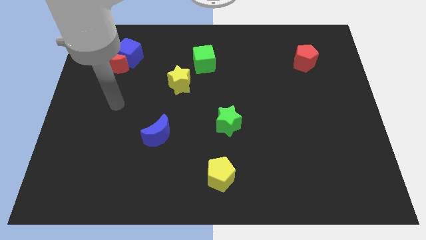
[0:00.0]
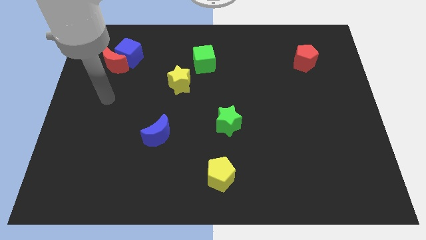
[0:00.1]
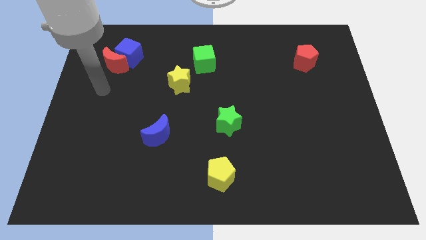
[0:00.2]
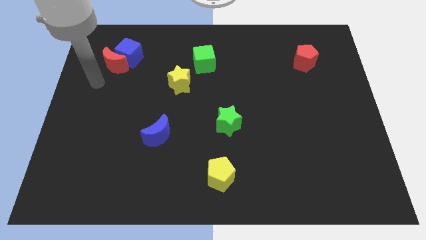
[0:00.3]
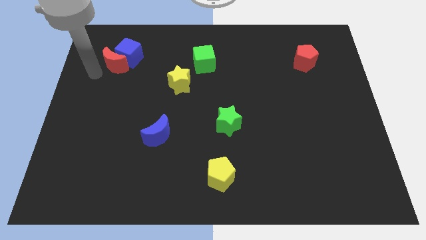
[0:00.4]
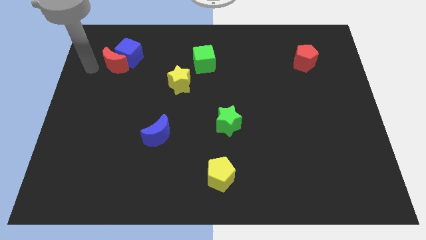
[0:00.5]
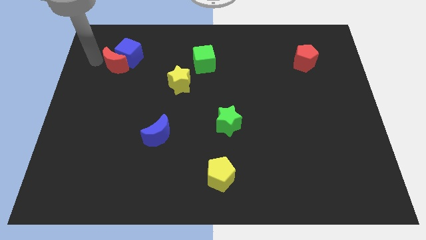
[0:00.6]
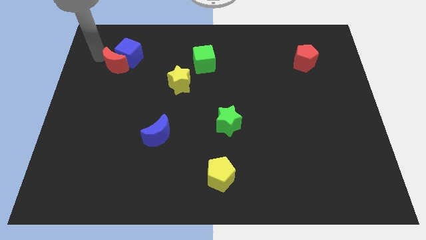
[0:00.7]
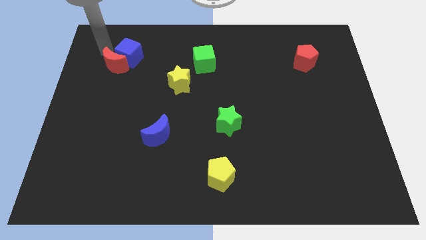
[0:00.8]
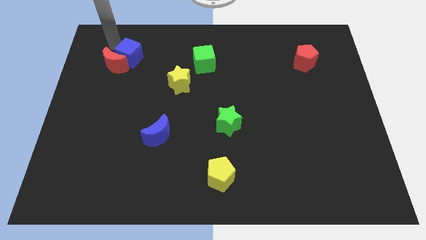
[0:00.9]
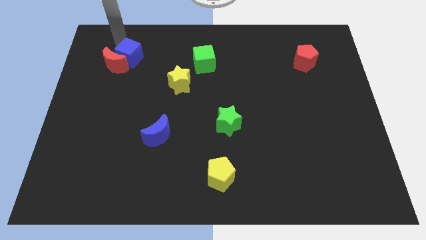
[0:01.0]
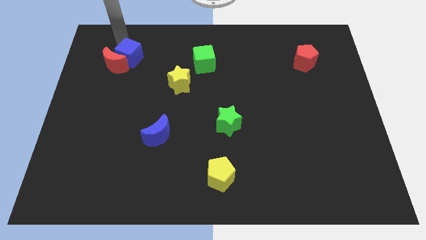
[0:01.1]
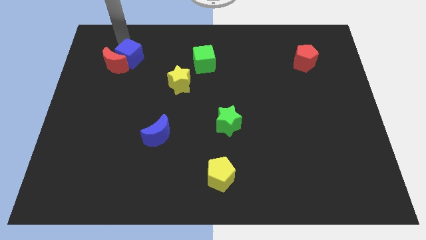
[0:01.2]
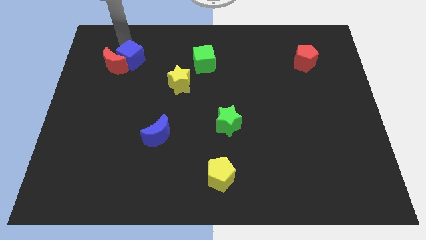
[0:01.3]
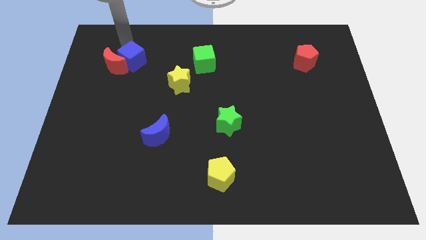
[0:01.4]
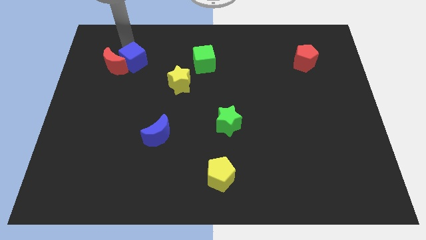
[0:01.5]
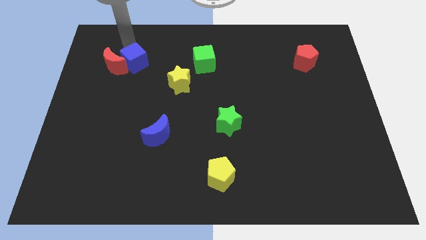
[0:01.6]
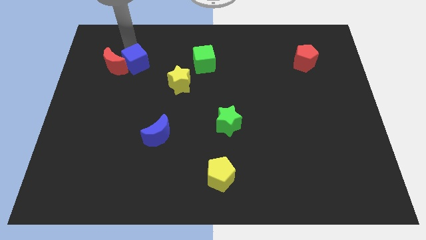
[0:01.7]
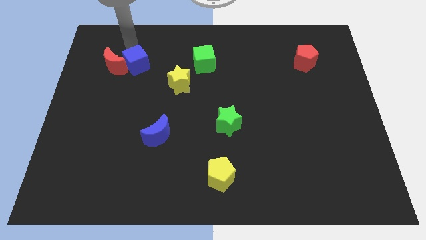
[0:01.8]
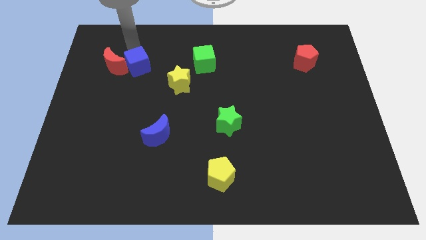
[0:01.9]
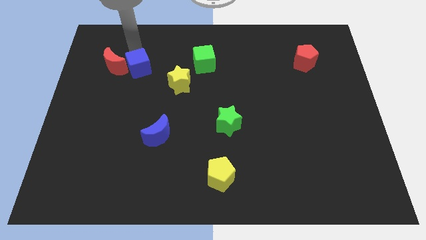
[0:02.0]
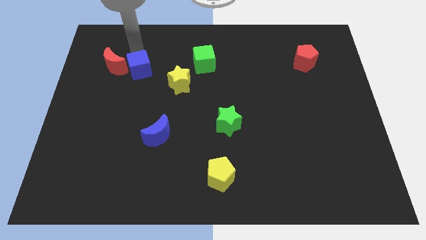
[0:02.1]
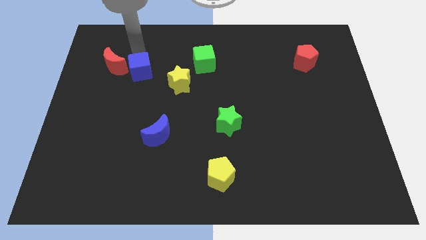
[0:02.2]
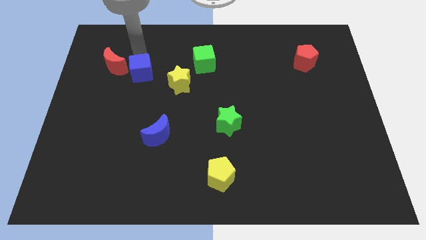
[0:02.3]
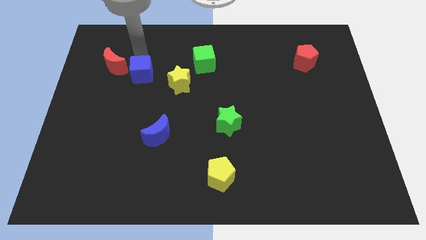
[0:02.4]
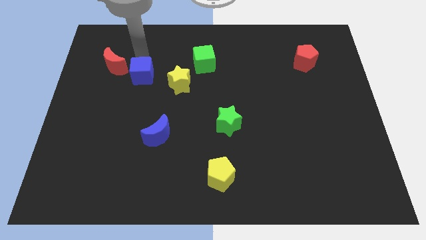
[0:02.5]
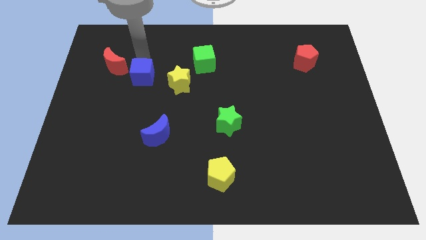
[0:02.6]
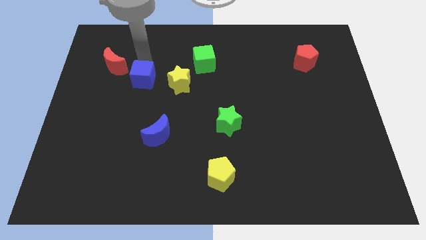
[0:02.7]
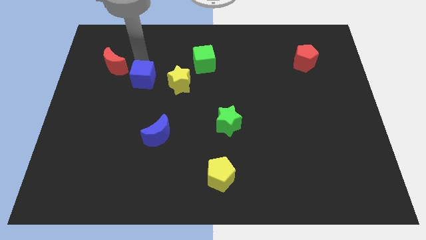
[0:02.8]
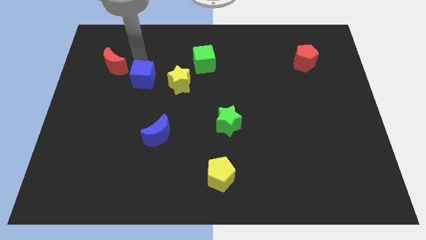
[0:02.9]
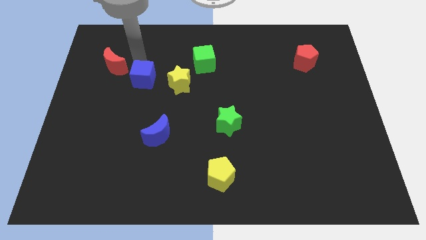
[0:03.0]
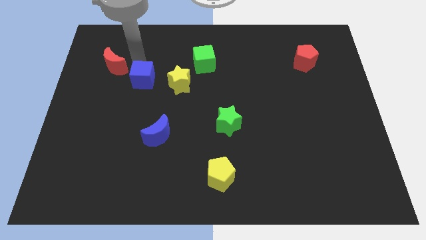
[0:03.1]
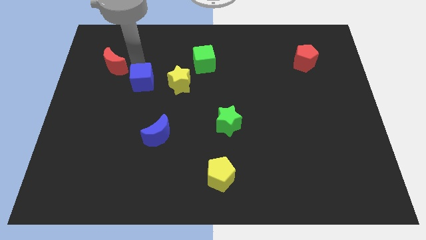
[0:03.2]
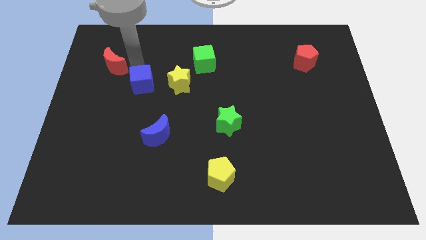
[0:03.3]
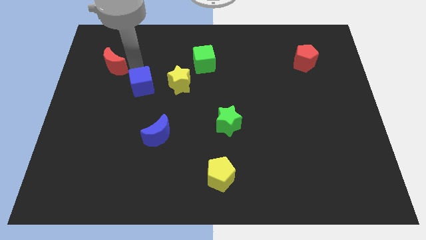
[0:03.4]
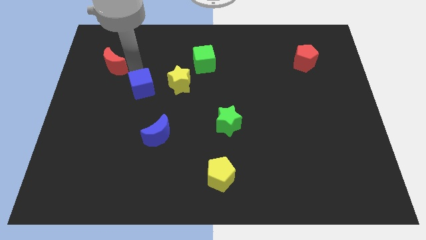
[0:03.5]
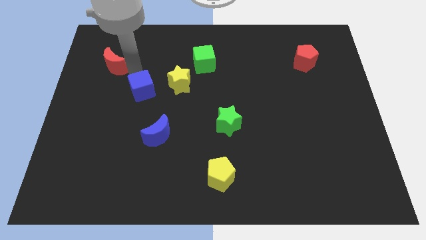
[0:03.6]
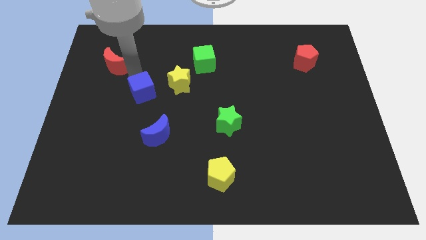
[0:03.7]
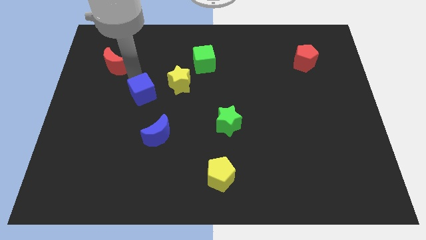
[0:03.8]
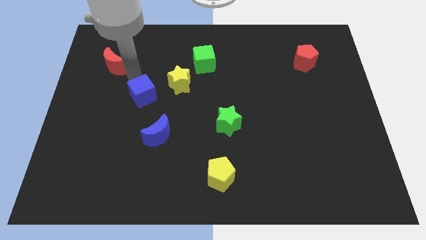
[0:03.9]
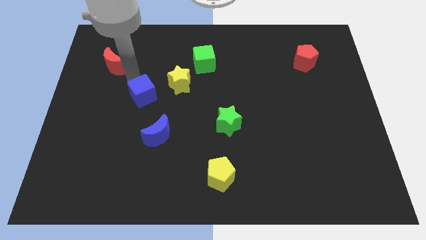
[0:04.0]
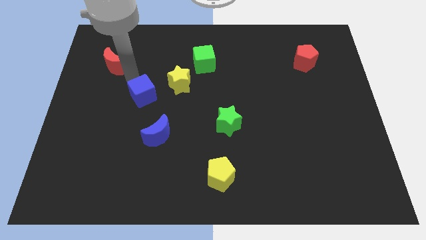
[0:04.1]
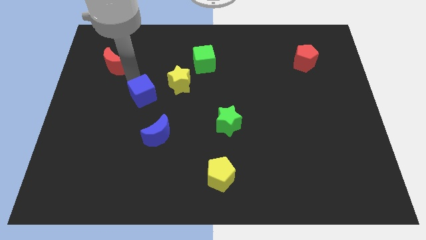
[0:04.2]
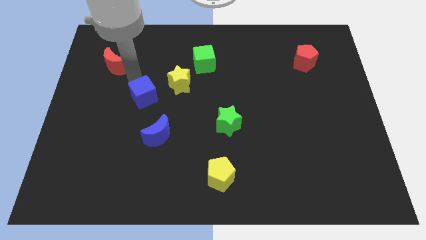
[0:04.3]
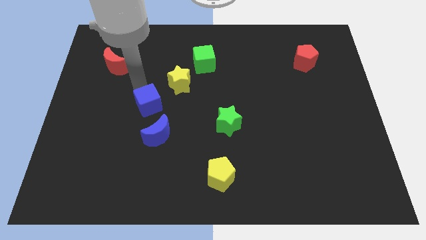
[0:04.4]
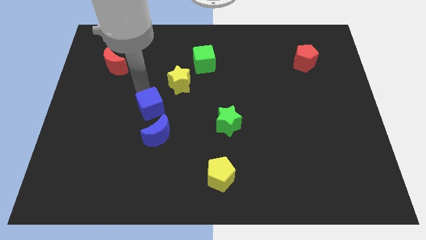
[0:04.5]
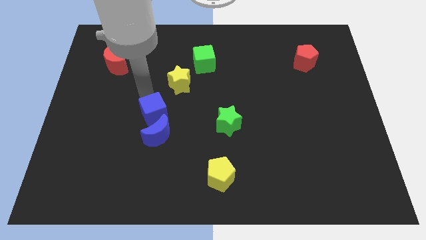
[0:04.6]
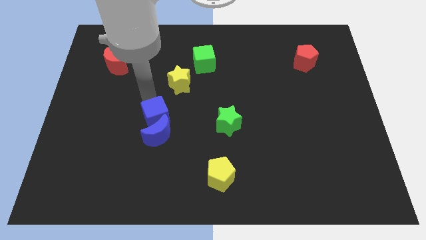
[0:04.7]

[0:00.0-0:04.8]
put the blue cube next to the blue moon

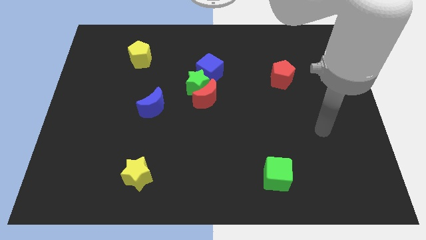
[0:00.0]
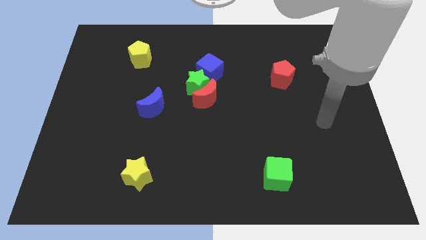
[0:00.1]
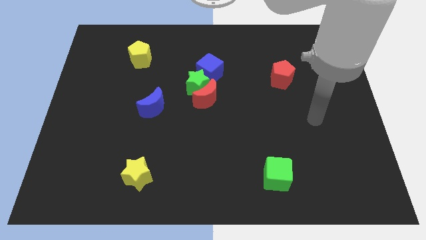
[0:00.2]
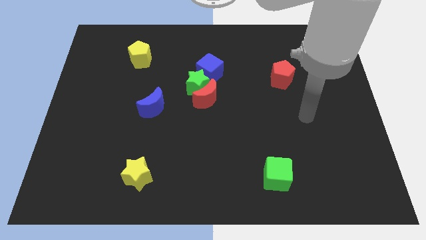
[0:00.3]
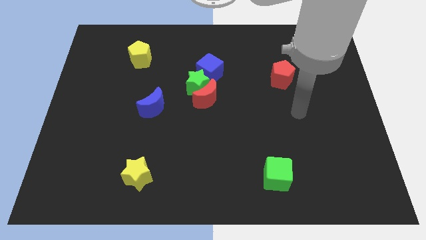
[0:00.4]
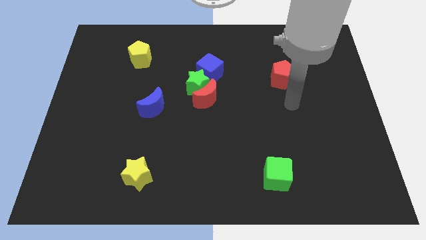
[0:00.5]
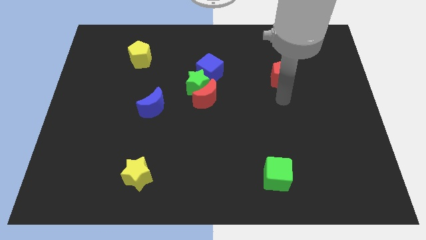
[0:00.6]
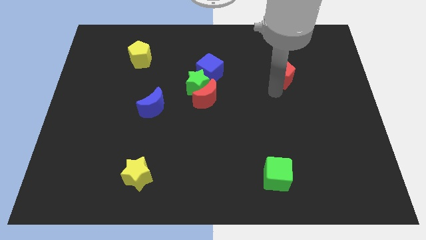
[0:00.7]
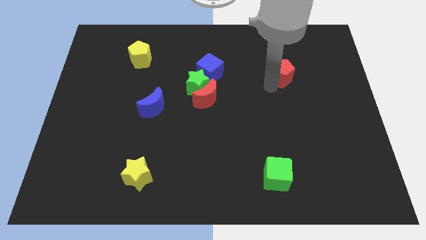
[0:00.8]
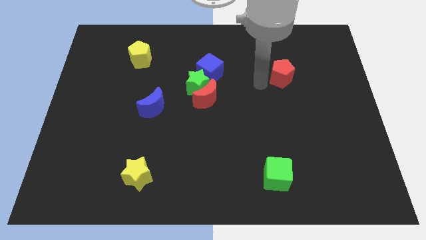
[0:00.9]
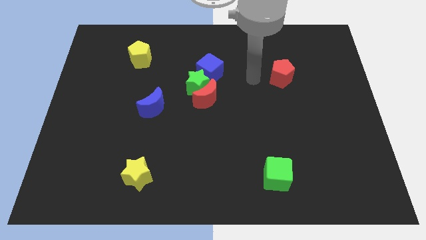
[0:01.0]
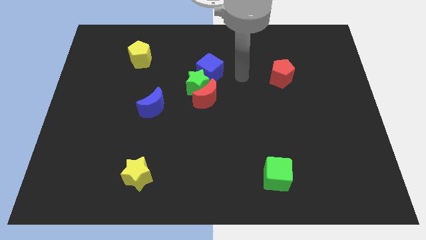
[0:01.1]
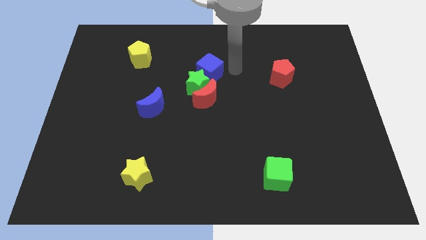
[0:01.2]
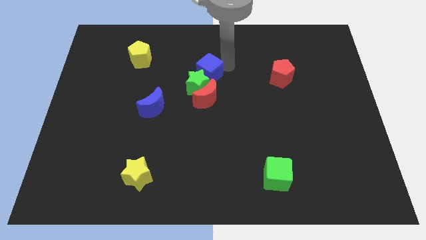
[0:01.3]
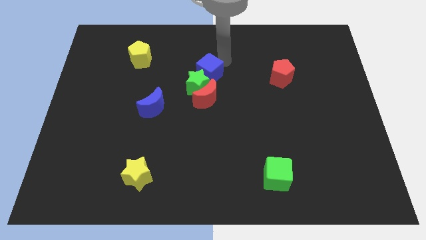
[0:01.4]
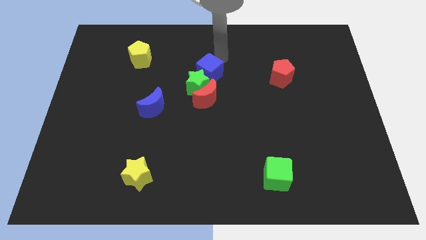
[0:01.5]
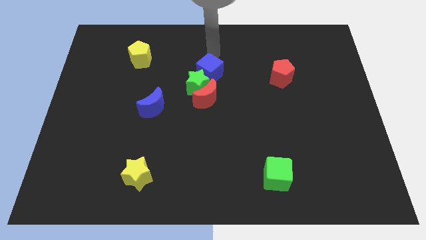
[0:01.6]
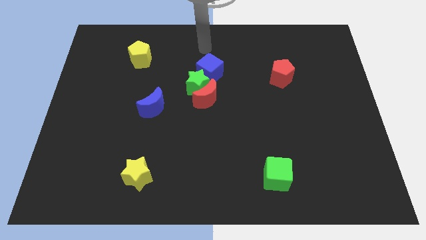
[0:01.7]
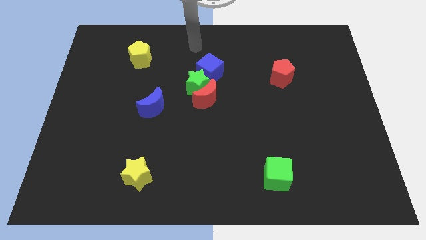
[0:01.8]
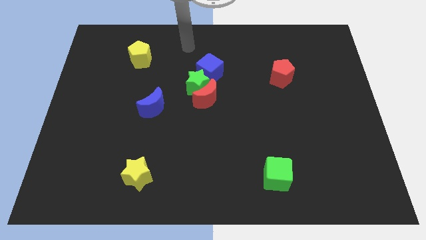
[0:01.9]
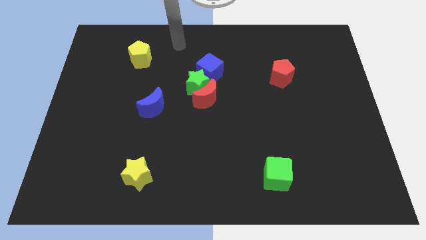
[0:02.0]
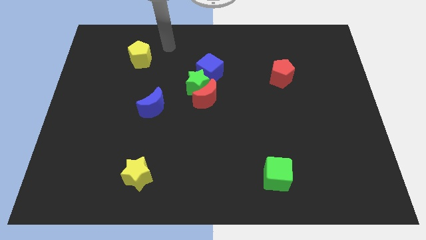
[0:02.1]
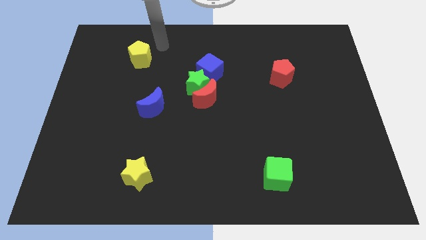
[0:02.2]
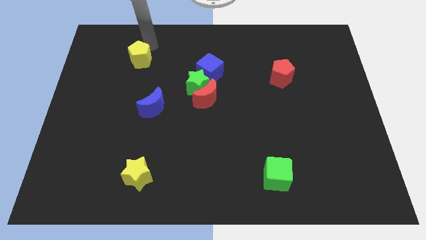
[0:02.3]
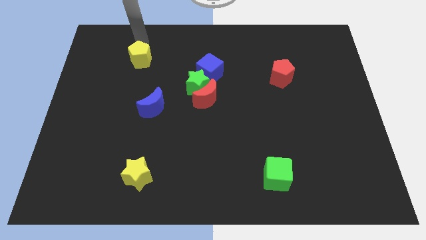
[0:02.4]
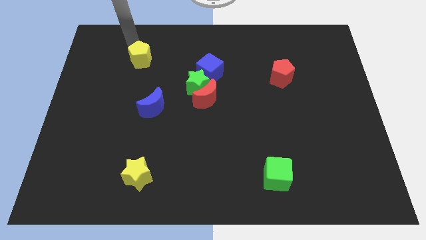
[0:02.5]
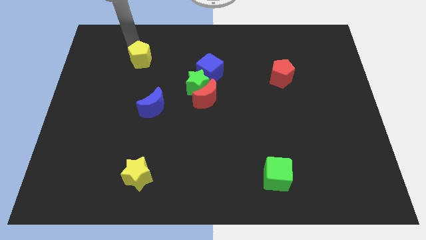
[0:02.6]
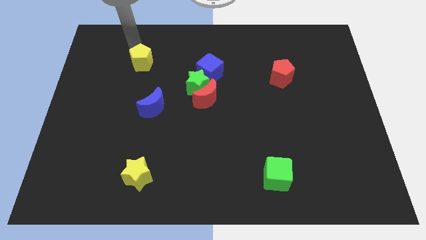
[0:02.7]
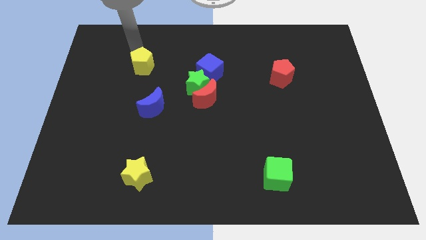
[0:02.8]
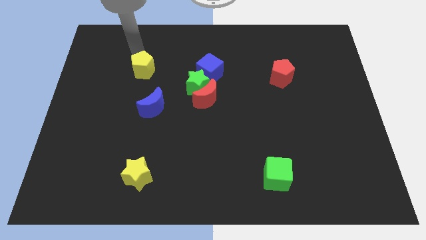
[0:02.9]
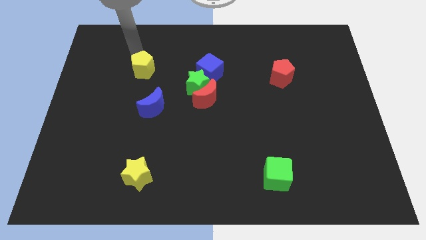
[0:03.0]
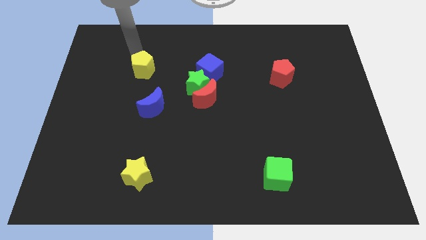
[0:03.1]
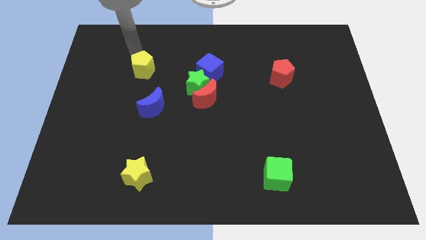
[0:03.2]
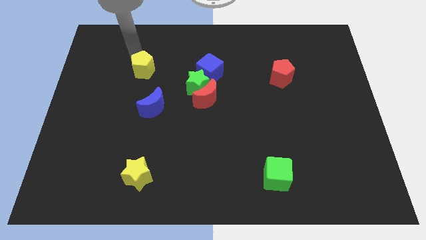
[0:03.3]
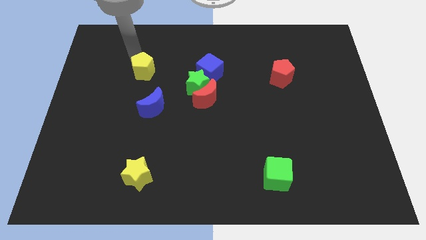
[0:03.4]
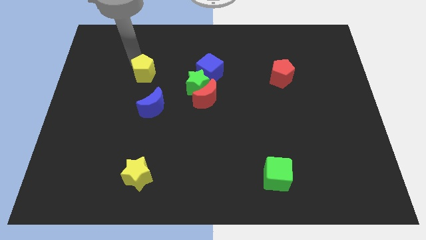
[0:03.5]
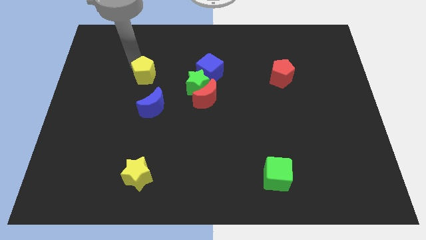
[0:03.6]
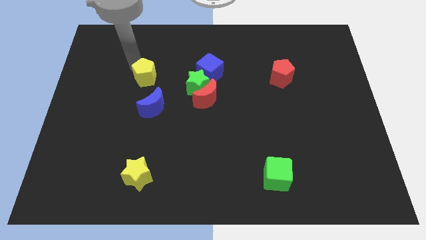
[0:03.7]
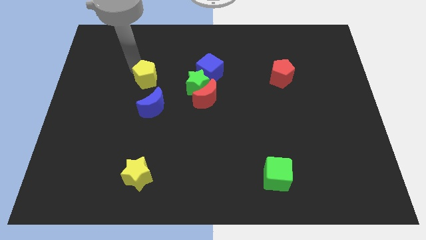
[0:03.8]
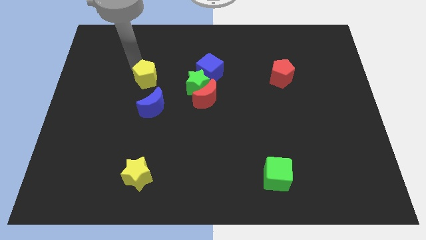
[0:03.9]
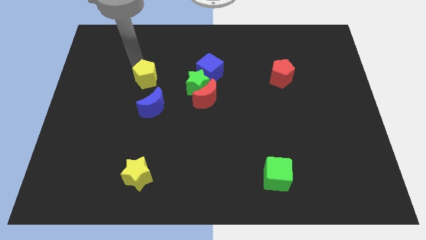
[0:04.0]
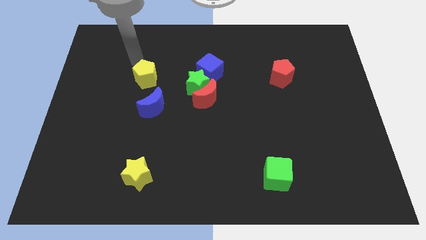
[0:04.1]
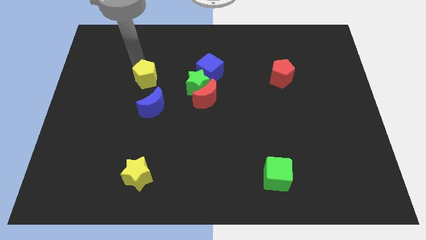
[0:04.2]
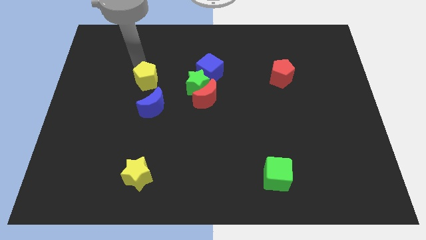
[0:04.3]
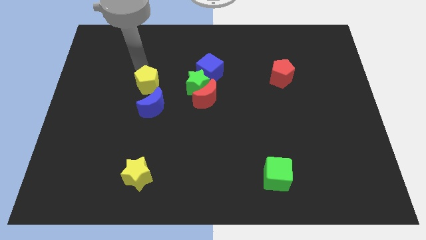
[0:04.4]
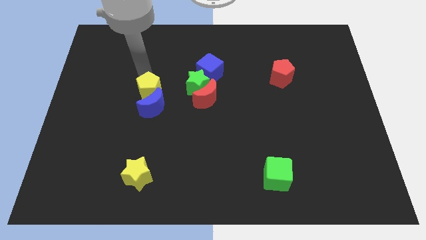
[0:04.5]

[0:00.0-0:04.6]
slide the yellow pentagon close to the blue moon
